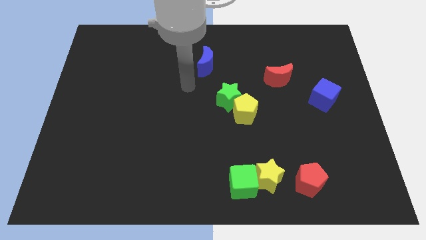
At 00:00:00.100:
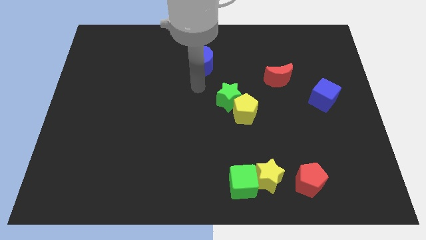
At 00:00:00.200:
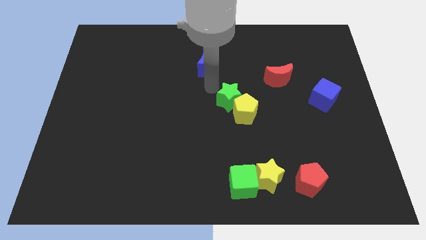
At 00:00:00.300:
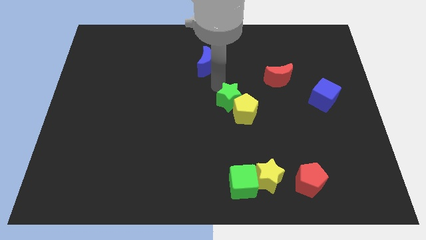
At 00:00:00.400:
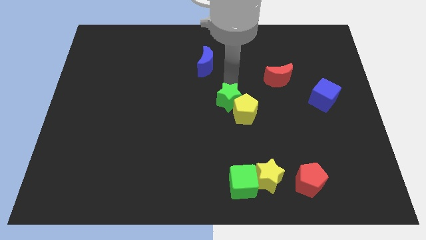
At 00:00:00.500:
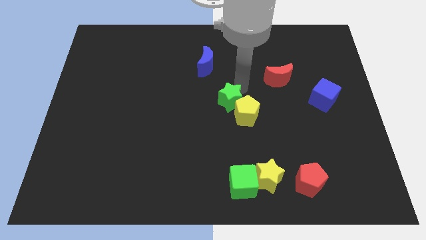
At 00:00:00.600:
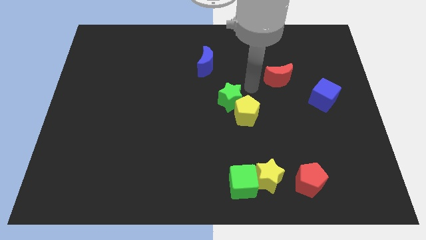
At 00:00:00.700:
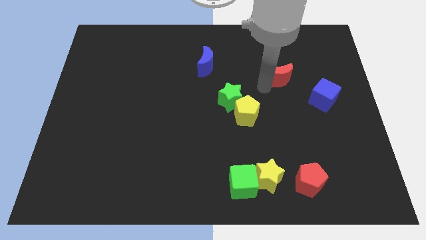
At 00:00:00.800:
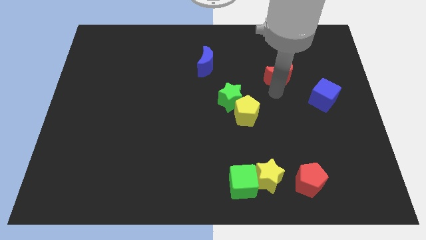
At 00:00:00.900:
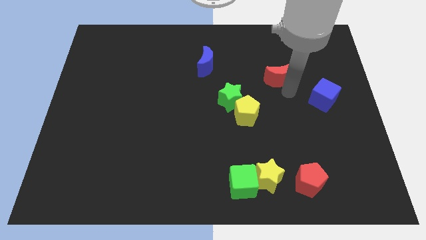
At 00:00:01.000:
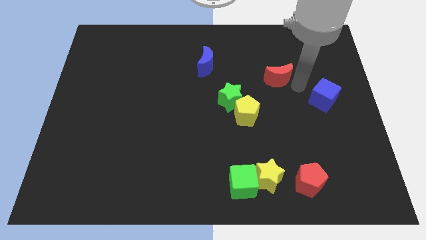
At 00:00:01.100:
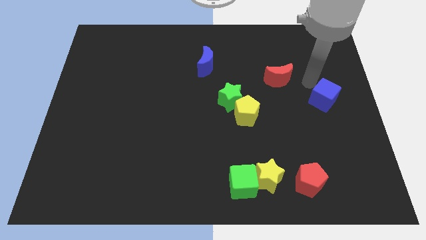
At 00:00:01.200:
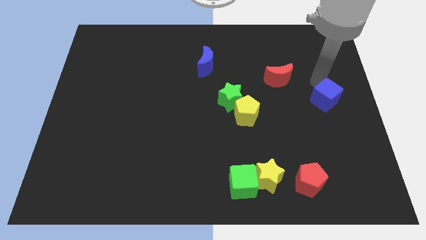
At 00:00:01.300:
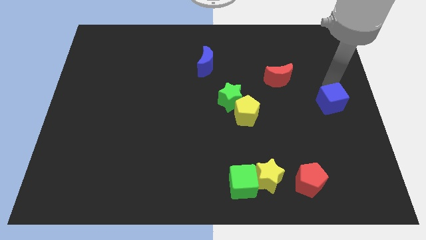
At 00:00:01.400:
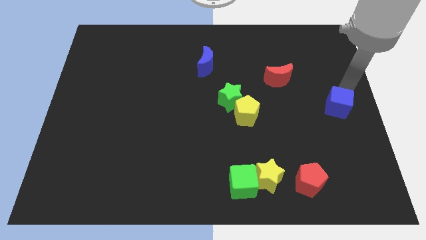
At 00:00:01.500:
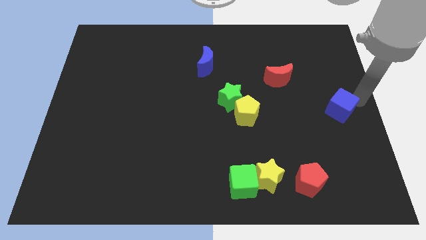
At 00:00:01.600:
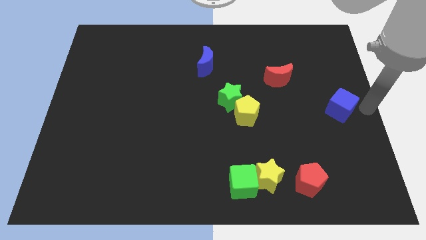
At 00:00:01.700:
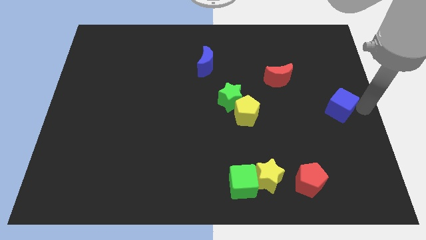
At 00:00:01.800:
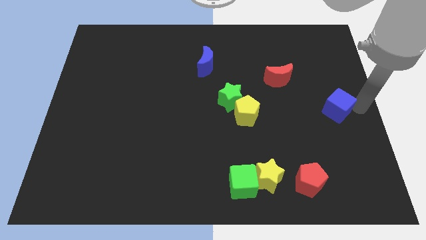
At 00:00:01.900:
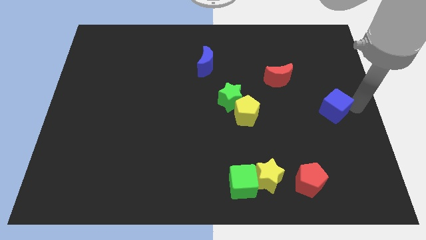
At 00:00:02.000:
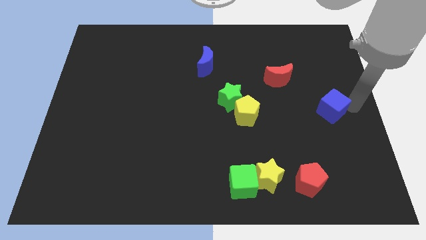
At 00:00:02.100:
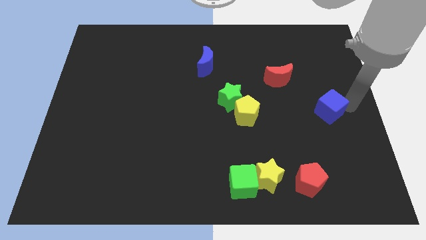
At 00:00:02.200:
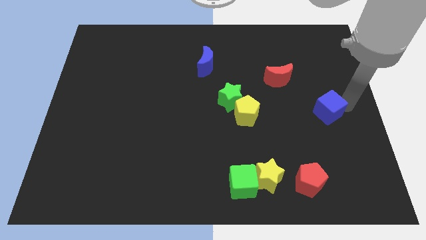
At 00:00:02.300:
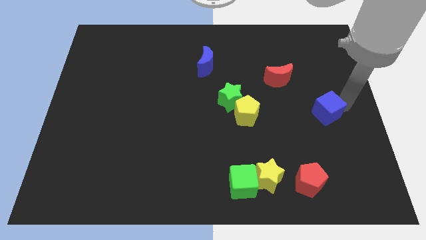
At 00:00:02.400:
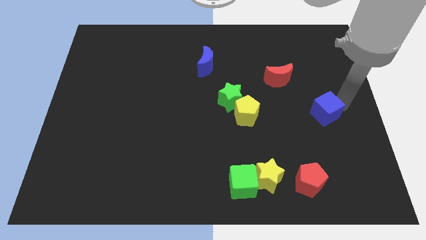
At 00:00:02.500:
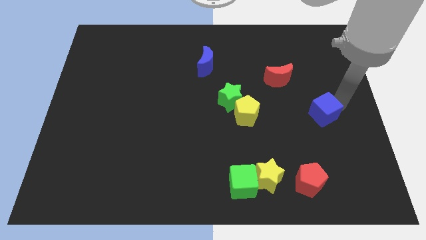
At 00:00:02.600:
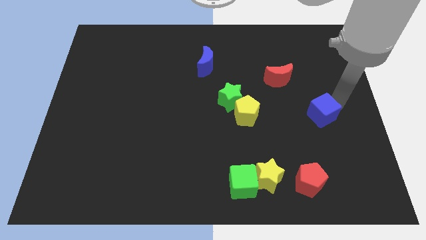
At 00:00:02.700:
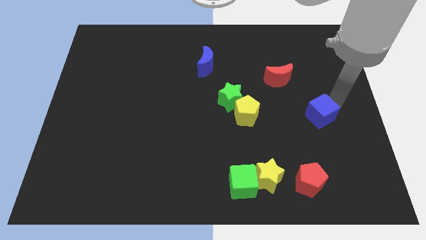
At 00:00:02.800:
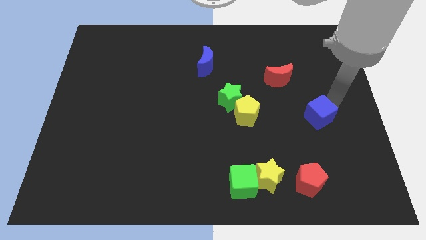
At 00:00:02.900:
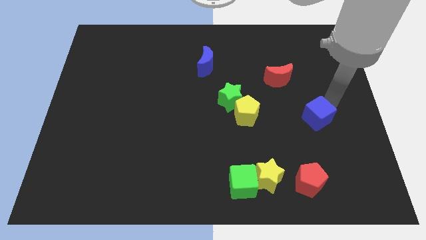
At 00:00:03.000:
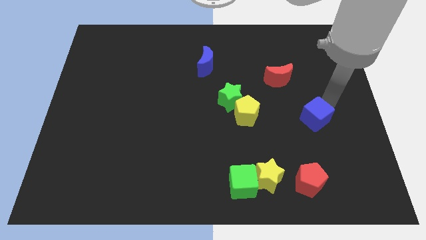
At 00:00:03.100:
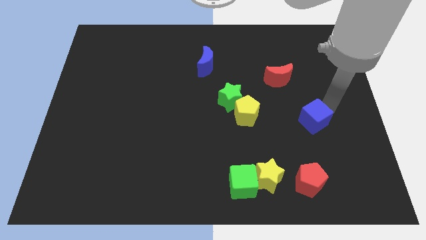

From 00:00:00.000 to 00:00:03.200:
slightly slide the blue cube downwards and left

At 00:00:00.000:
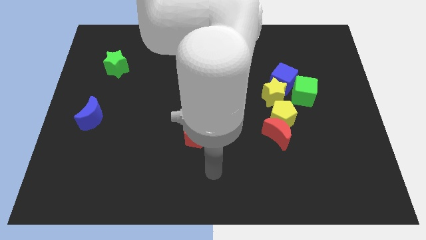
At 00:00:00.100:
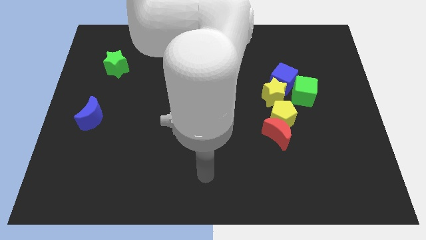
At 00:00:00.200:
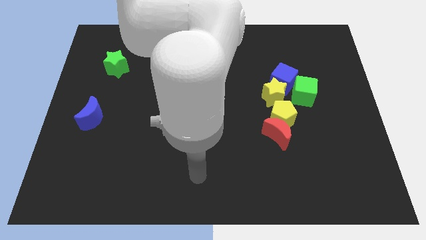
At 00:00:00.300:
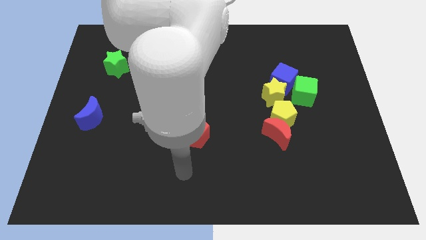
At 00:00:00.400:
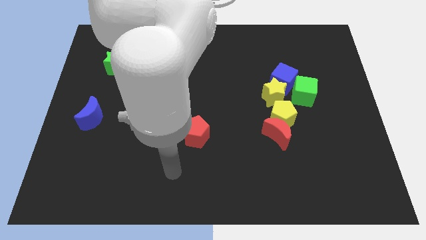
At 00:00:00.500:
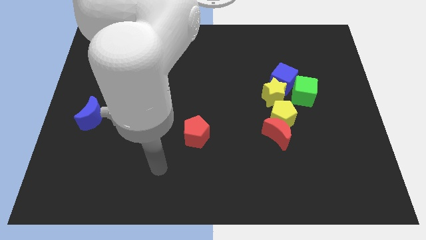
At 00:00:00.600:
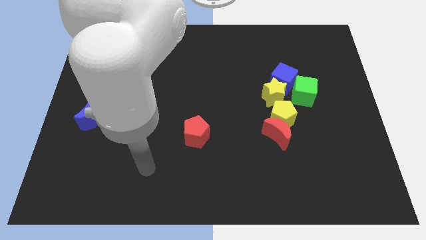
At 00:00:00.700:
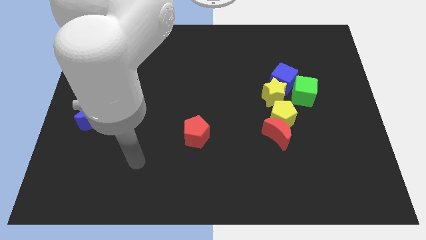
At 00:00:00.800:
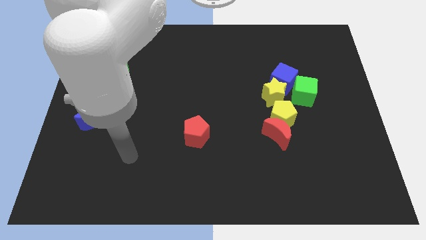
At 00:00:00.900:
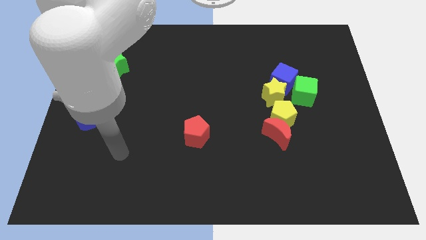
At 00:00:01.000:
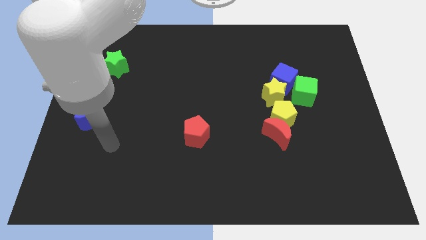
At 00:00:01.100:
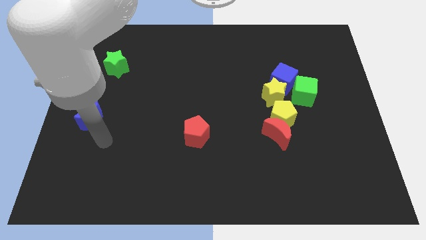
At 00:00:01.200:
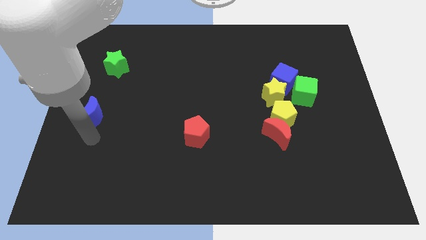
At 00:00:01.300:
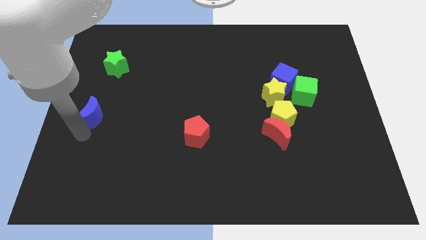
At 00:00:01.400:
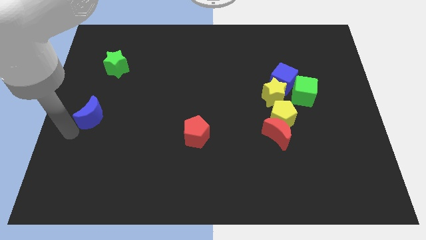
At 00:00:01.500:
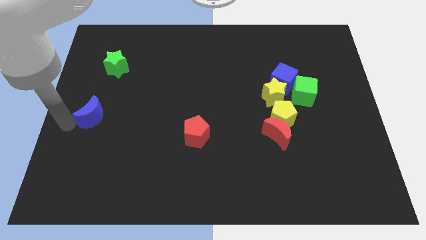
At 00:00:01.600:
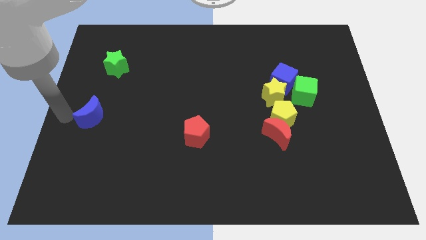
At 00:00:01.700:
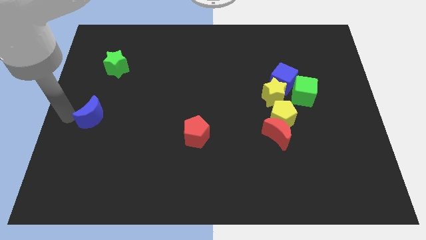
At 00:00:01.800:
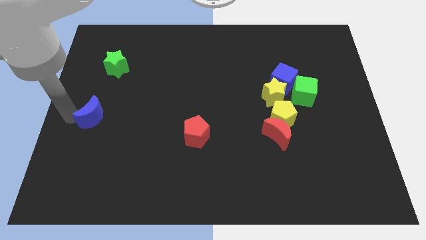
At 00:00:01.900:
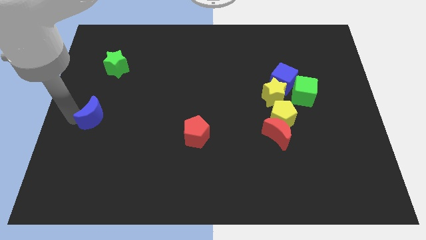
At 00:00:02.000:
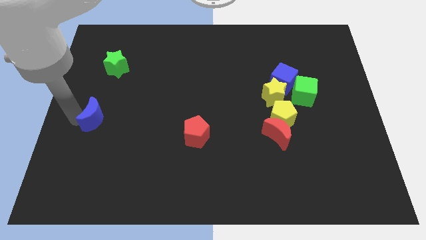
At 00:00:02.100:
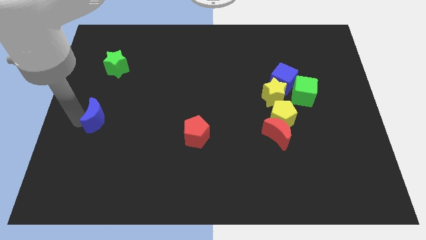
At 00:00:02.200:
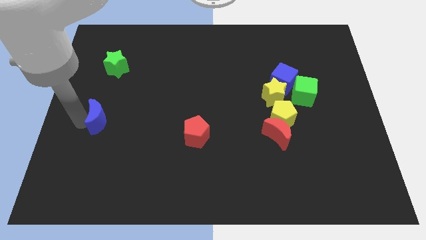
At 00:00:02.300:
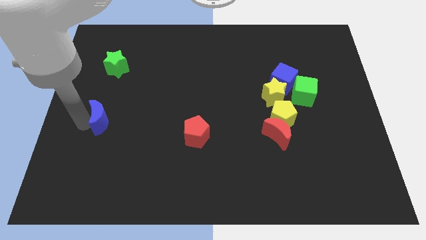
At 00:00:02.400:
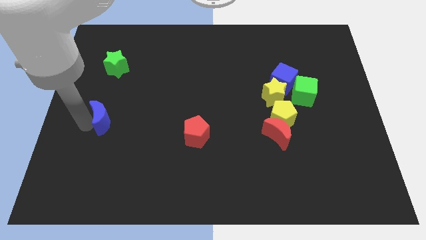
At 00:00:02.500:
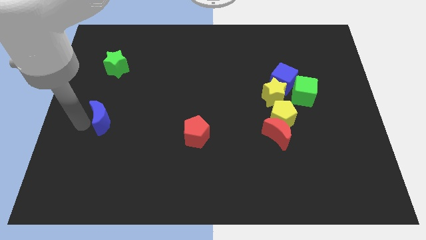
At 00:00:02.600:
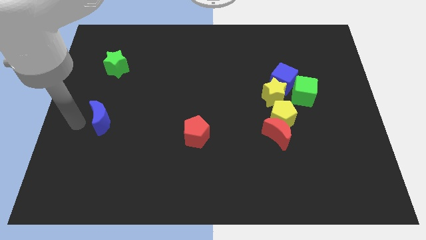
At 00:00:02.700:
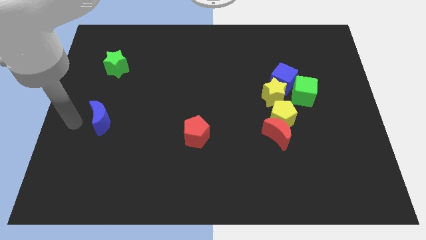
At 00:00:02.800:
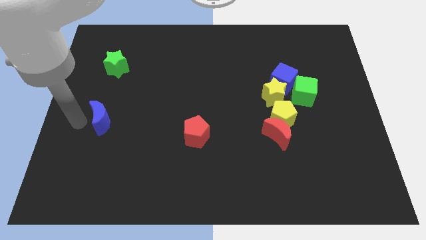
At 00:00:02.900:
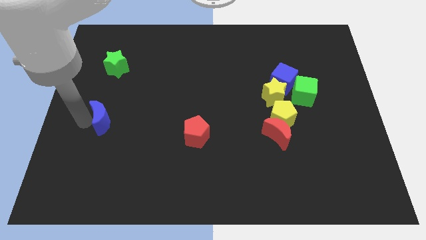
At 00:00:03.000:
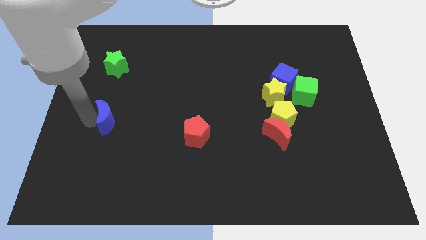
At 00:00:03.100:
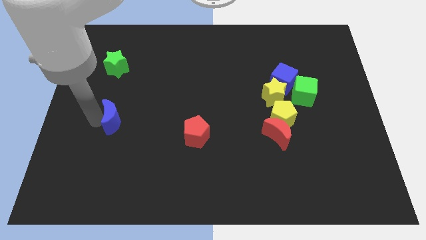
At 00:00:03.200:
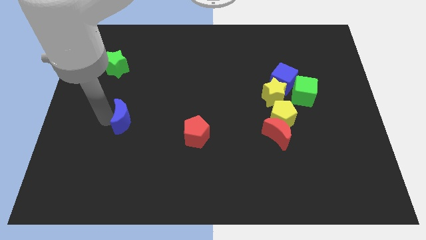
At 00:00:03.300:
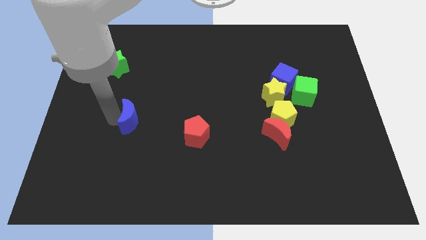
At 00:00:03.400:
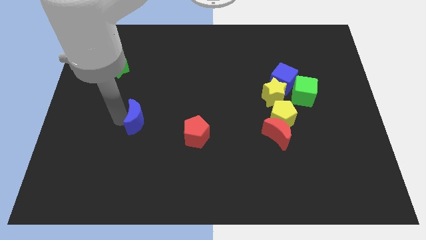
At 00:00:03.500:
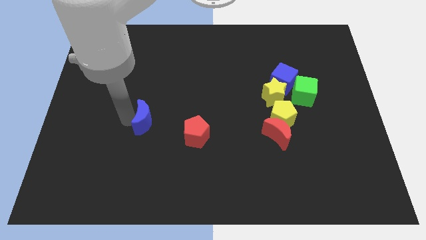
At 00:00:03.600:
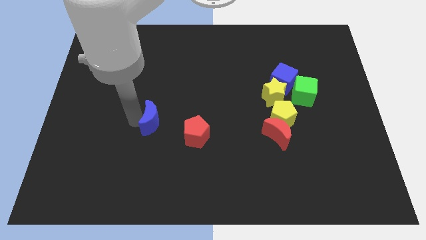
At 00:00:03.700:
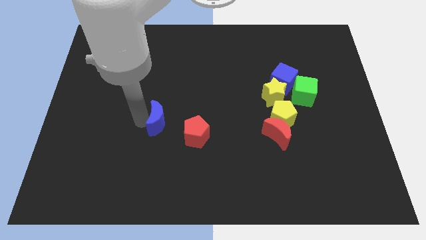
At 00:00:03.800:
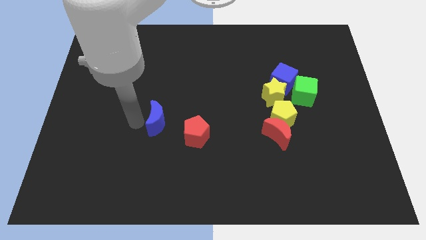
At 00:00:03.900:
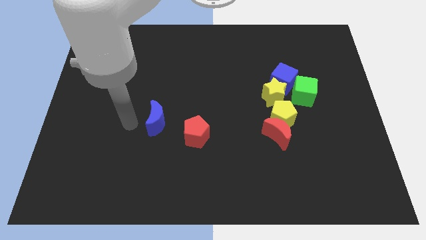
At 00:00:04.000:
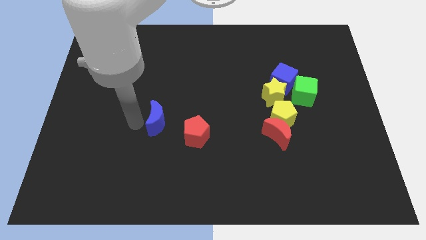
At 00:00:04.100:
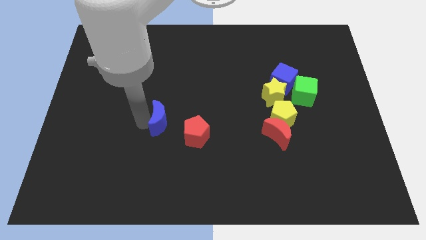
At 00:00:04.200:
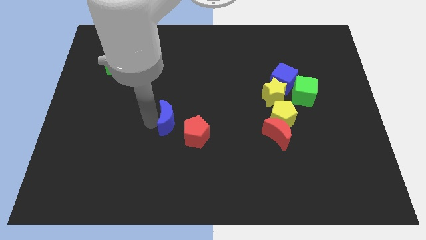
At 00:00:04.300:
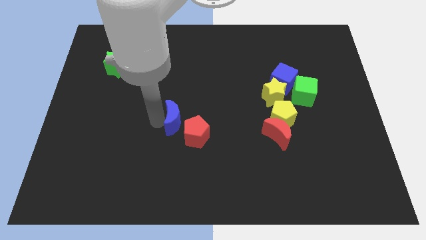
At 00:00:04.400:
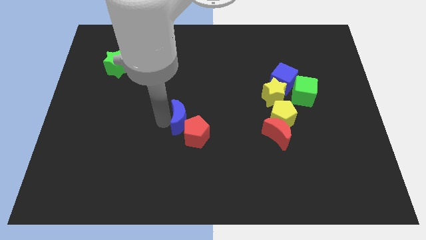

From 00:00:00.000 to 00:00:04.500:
push the blue moon to the right

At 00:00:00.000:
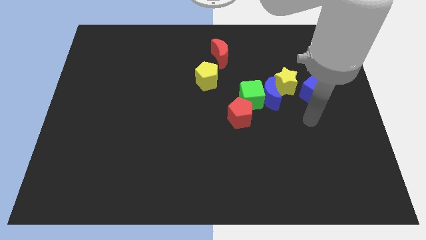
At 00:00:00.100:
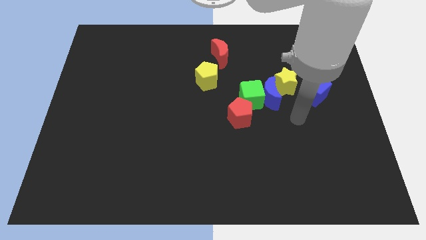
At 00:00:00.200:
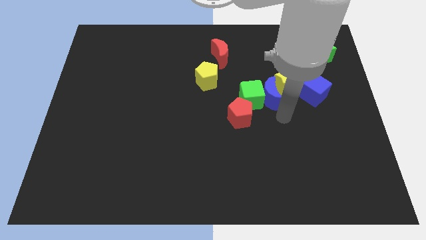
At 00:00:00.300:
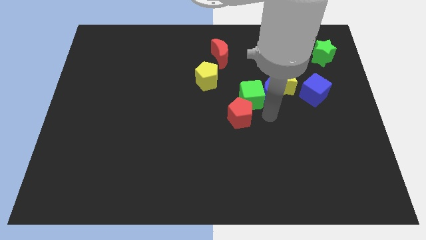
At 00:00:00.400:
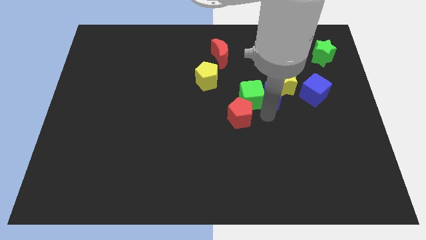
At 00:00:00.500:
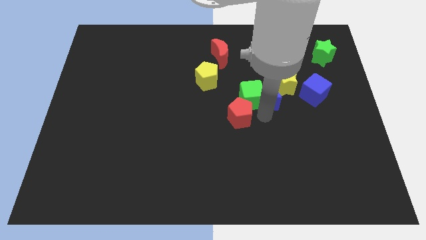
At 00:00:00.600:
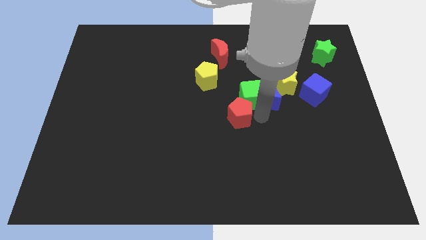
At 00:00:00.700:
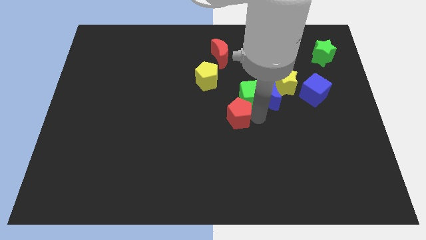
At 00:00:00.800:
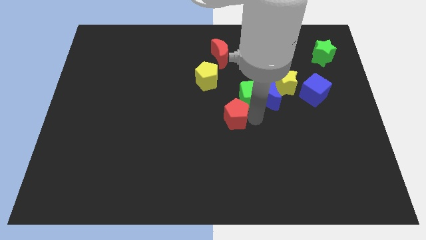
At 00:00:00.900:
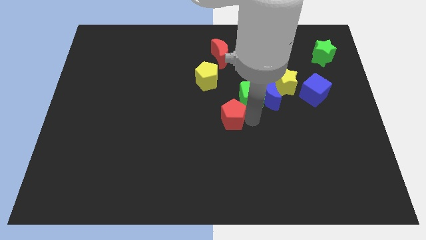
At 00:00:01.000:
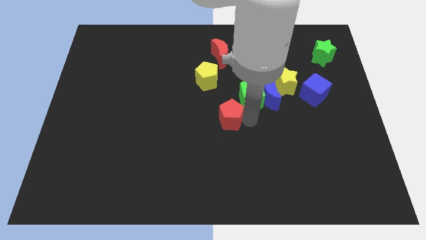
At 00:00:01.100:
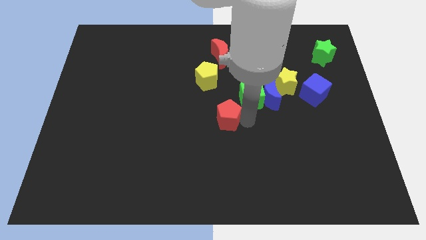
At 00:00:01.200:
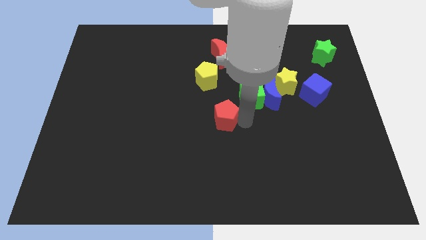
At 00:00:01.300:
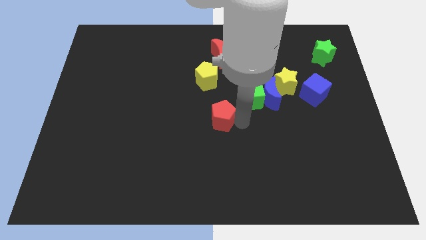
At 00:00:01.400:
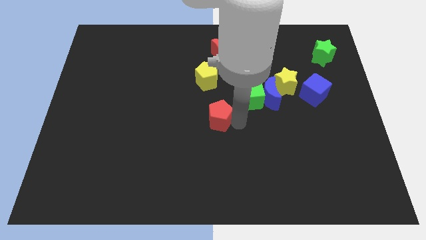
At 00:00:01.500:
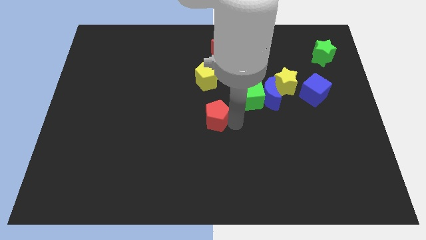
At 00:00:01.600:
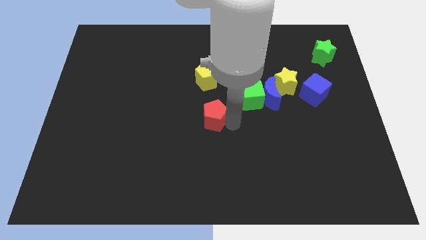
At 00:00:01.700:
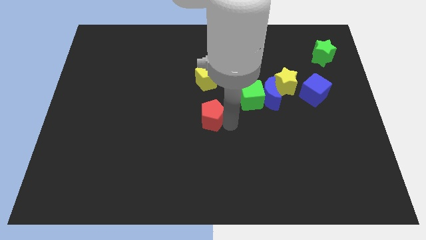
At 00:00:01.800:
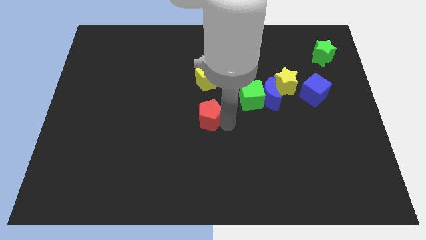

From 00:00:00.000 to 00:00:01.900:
slightly push the red pentagon left
